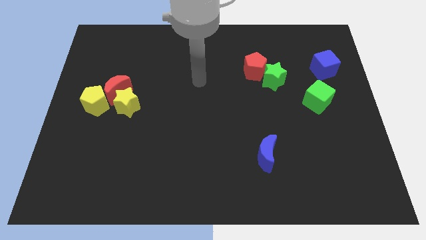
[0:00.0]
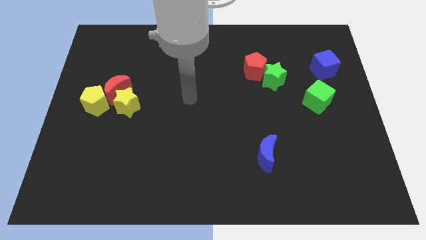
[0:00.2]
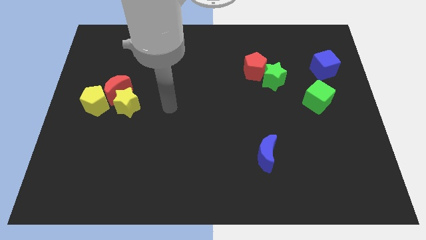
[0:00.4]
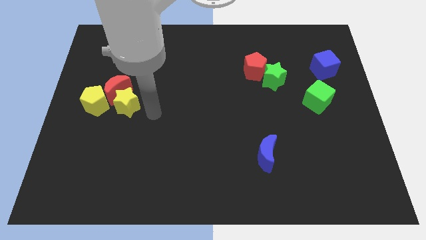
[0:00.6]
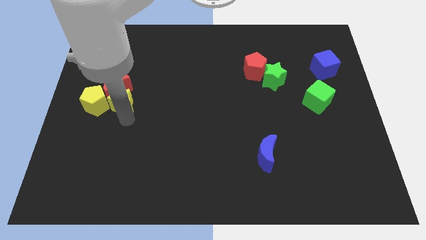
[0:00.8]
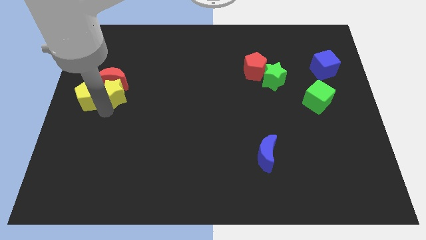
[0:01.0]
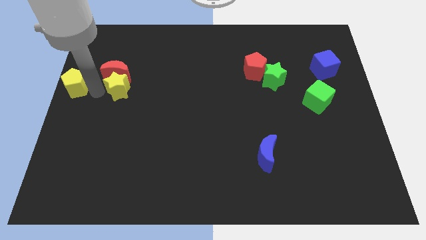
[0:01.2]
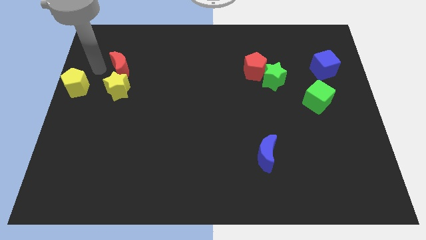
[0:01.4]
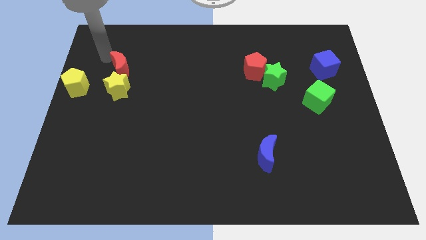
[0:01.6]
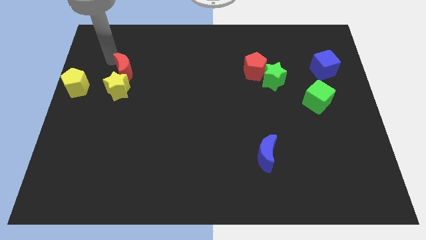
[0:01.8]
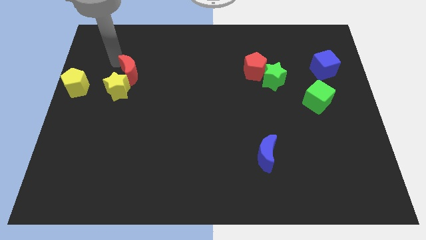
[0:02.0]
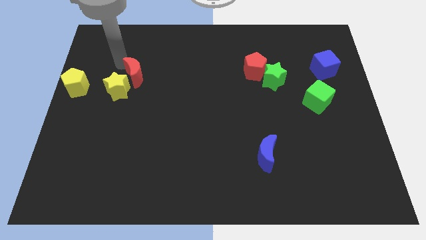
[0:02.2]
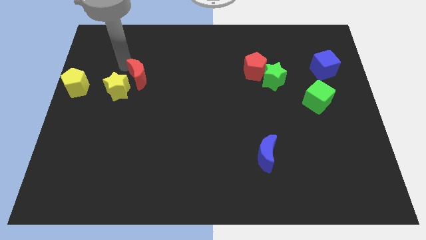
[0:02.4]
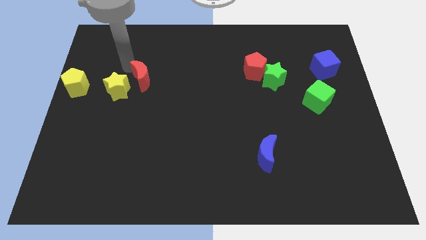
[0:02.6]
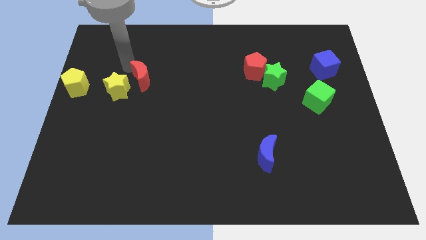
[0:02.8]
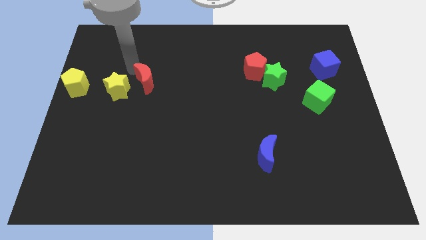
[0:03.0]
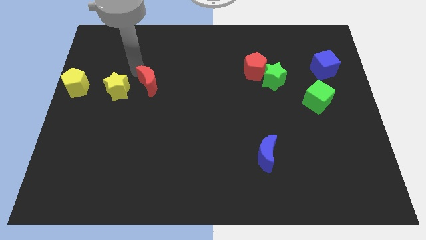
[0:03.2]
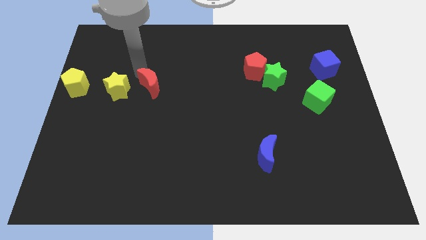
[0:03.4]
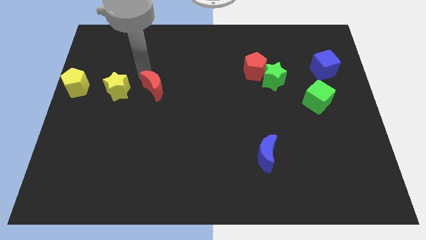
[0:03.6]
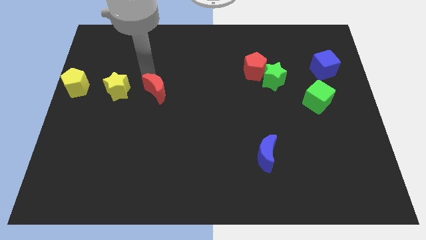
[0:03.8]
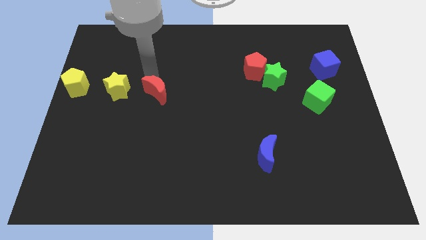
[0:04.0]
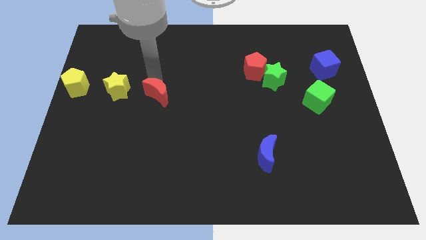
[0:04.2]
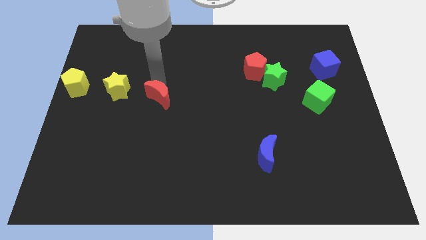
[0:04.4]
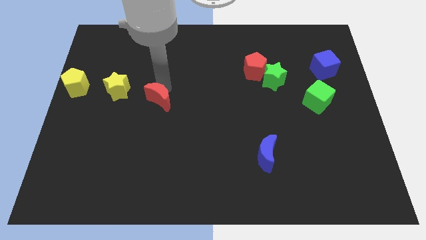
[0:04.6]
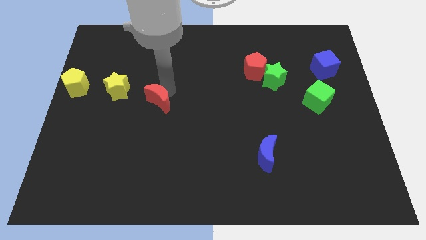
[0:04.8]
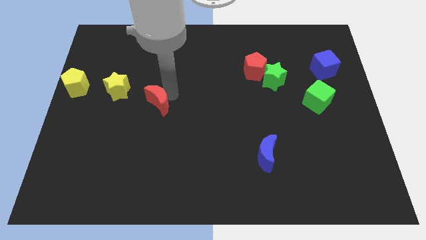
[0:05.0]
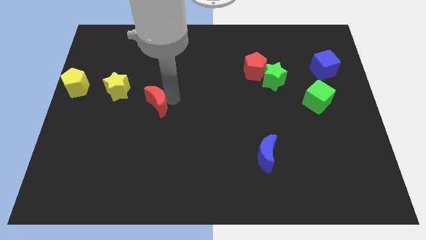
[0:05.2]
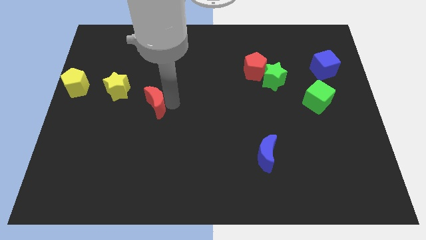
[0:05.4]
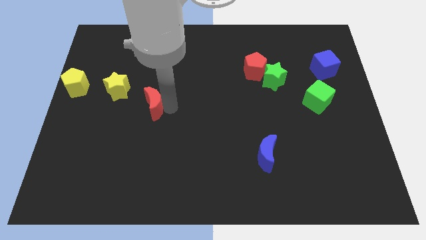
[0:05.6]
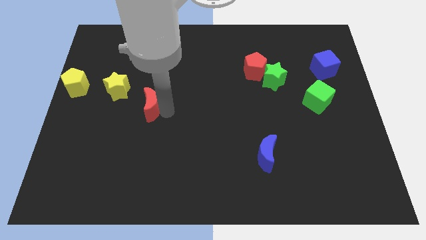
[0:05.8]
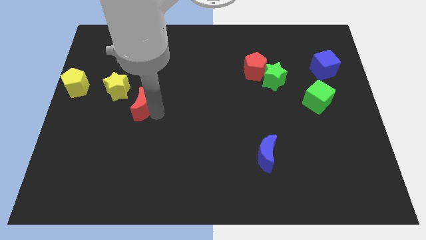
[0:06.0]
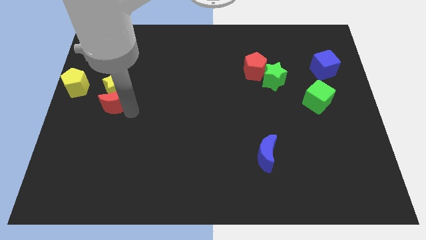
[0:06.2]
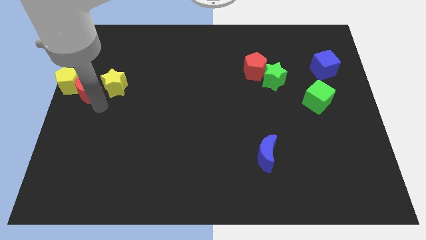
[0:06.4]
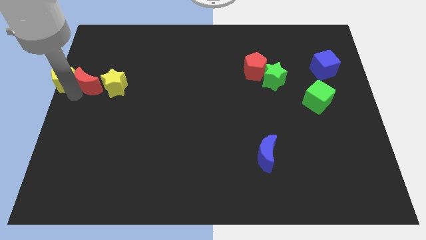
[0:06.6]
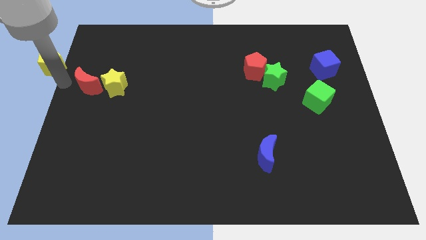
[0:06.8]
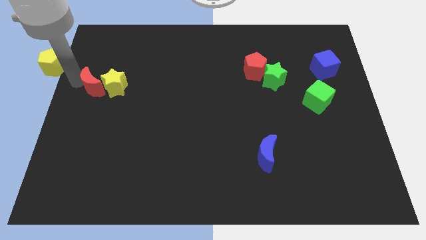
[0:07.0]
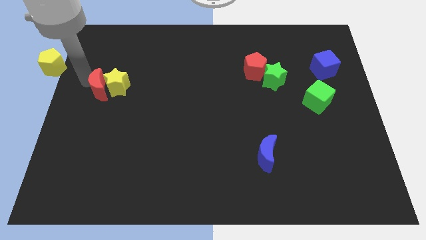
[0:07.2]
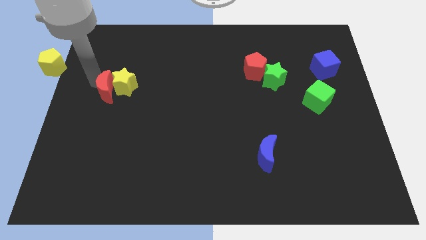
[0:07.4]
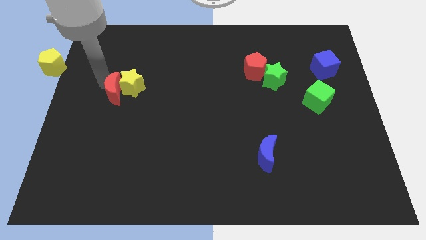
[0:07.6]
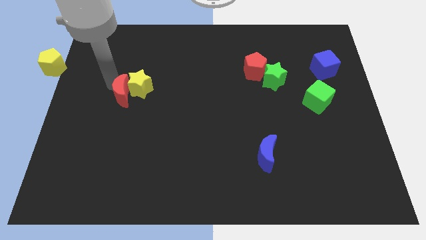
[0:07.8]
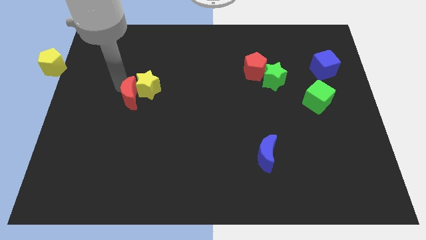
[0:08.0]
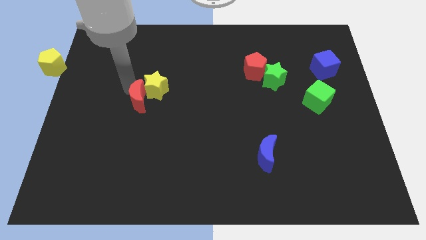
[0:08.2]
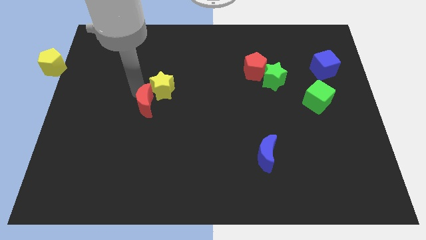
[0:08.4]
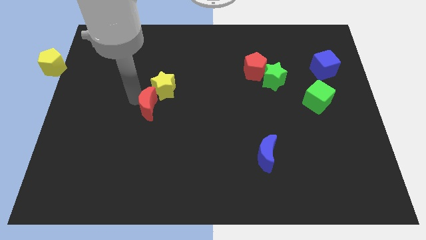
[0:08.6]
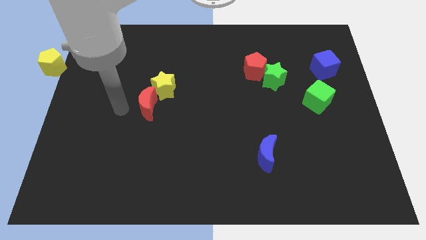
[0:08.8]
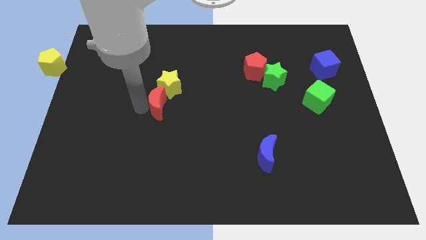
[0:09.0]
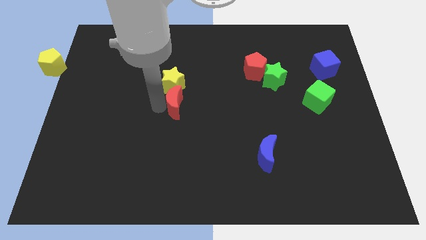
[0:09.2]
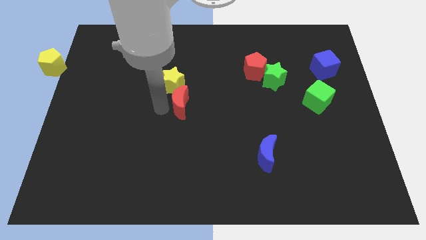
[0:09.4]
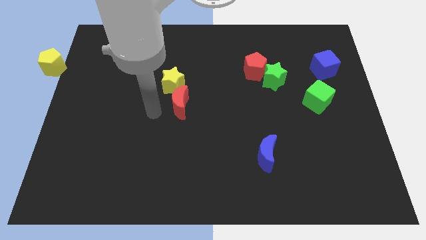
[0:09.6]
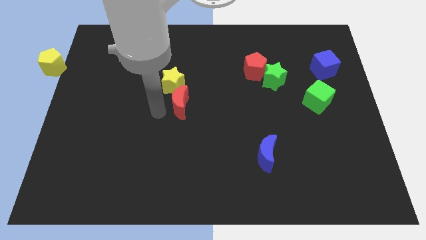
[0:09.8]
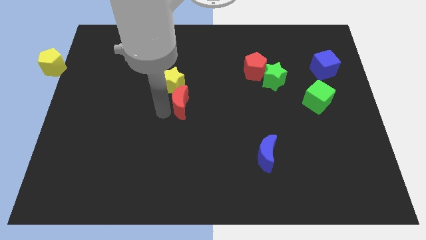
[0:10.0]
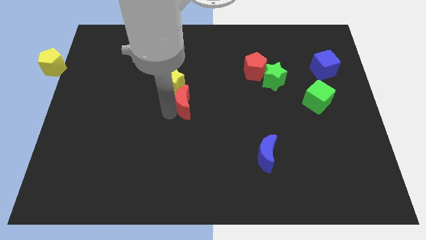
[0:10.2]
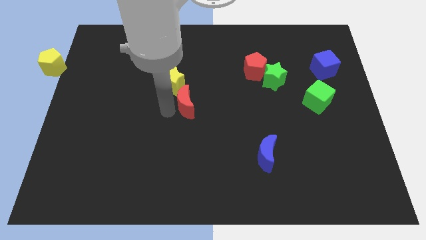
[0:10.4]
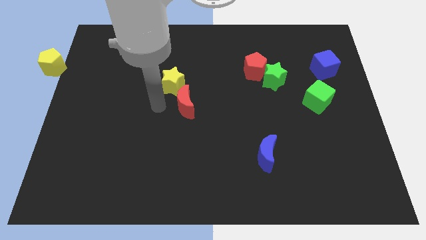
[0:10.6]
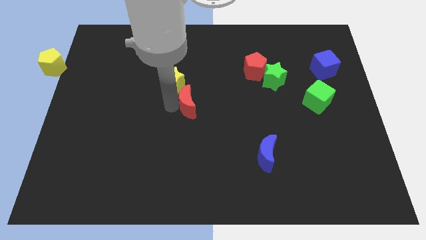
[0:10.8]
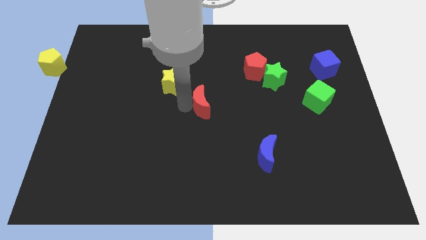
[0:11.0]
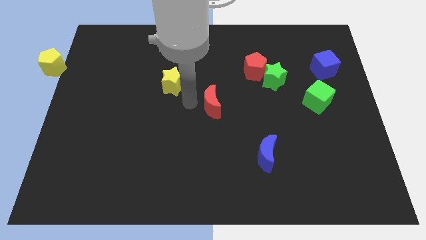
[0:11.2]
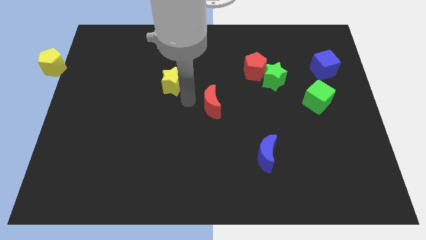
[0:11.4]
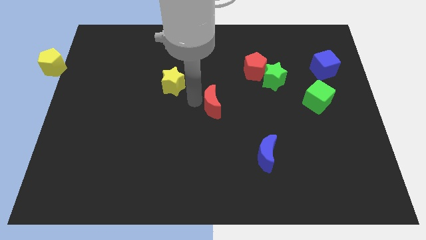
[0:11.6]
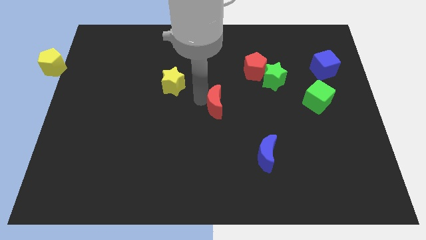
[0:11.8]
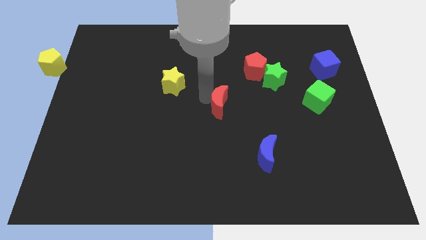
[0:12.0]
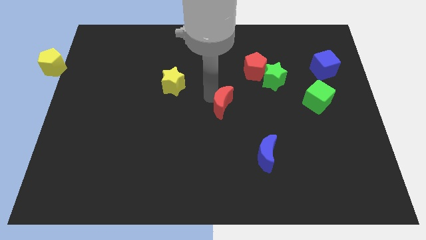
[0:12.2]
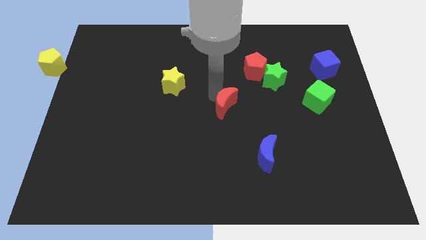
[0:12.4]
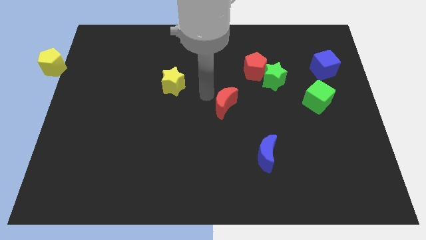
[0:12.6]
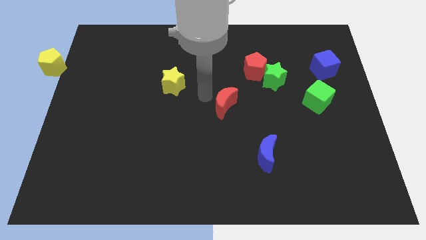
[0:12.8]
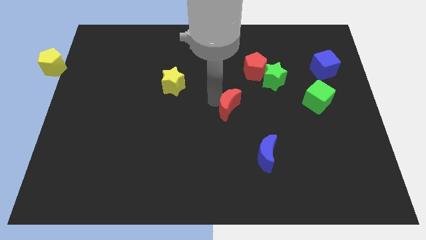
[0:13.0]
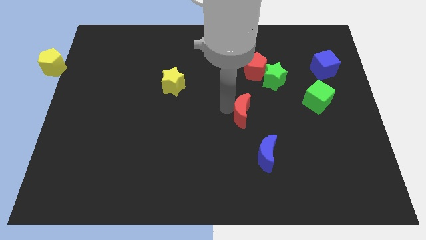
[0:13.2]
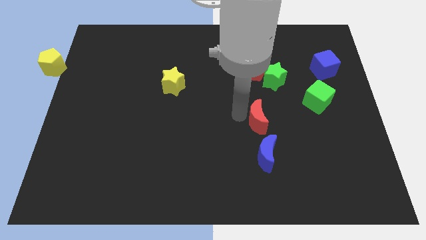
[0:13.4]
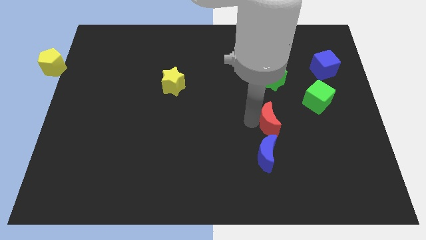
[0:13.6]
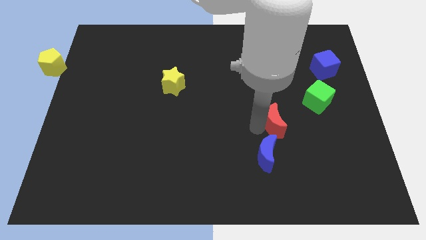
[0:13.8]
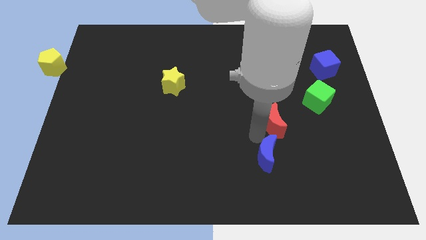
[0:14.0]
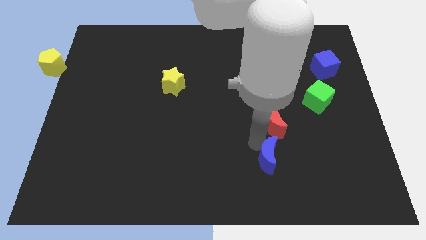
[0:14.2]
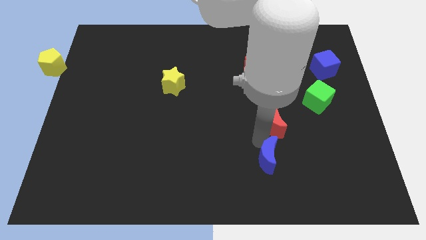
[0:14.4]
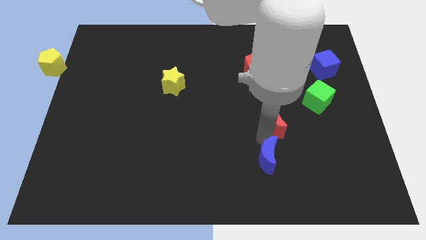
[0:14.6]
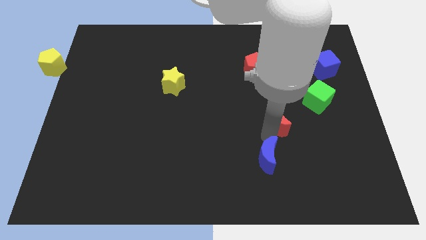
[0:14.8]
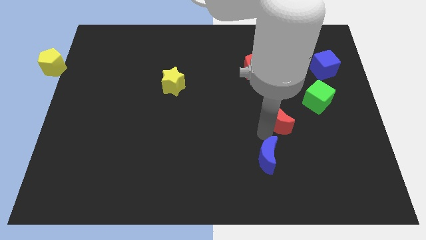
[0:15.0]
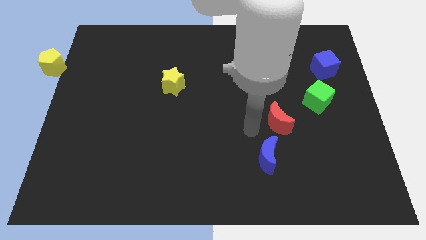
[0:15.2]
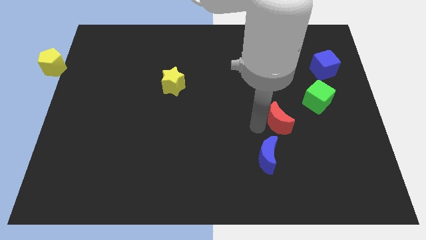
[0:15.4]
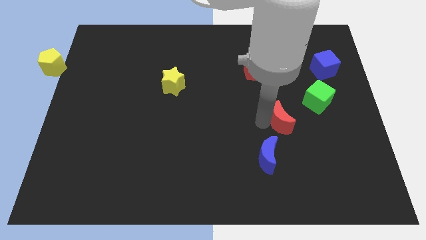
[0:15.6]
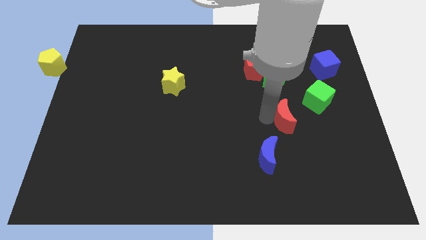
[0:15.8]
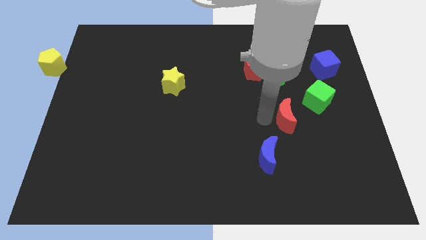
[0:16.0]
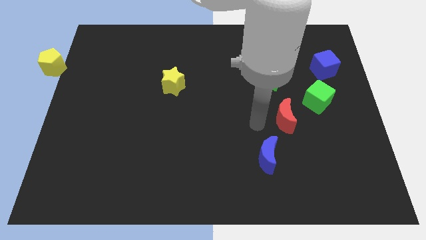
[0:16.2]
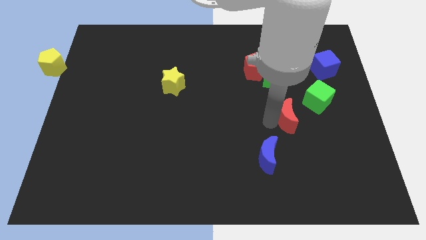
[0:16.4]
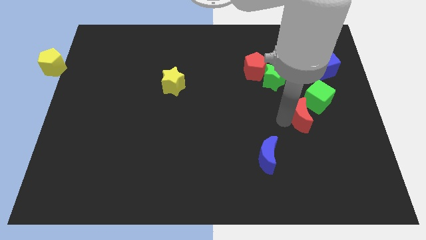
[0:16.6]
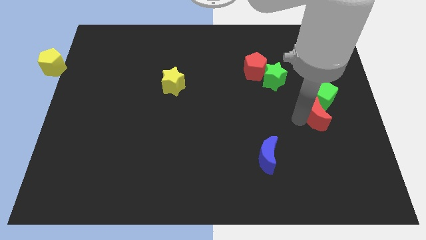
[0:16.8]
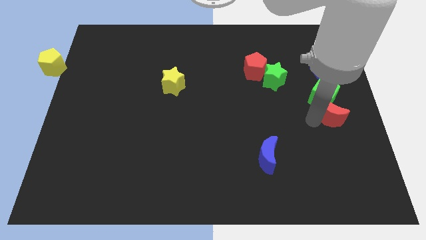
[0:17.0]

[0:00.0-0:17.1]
slide the red moon below the blue cube
